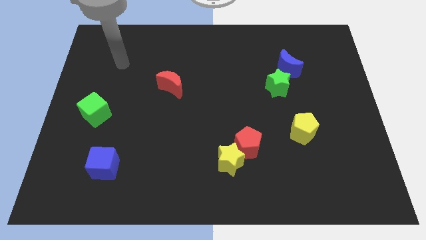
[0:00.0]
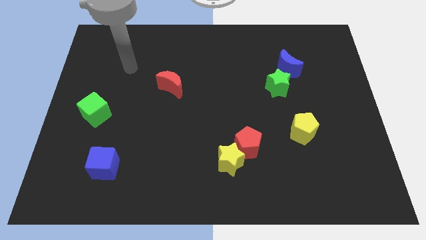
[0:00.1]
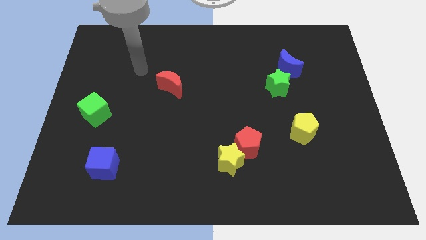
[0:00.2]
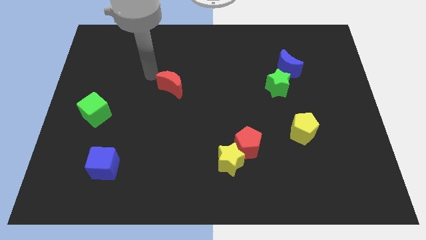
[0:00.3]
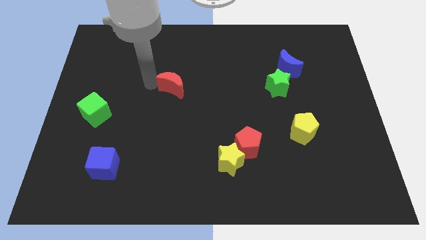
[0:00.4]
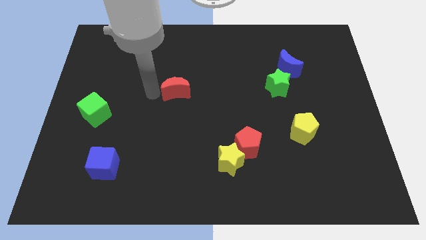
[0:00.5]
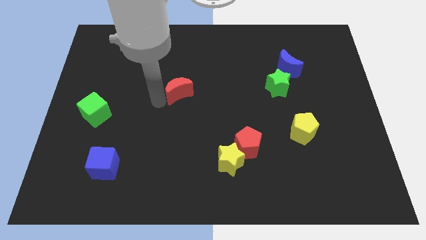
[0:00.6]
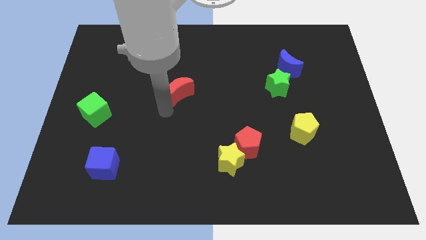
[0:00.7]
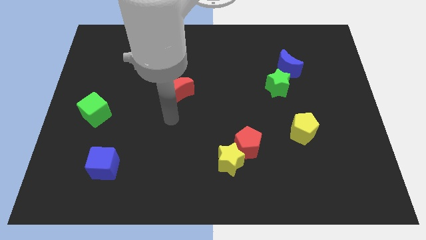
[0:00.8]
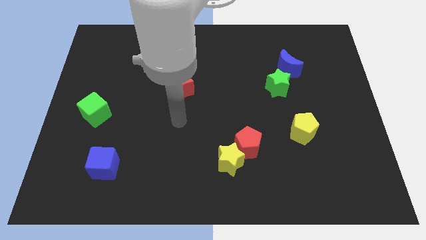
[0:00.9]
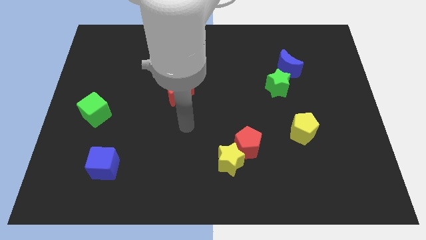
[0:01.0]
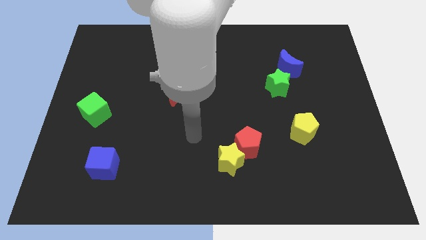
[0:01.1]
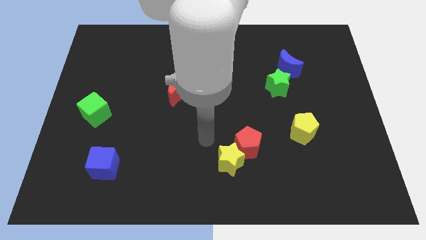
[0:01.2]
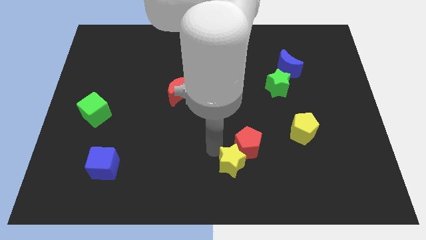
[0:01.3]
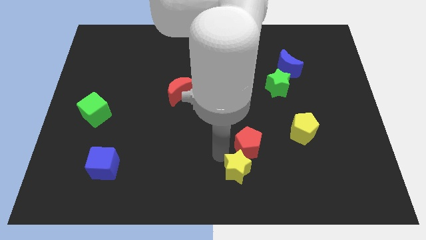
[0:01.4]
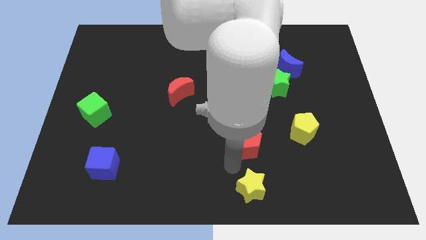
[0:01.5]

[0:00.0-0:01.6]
separate the red pentagon from the yellow star

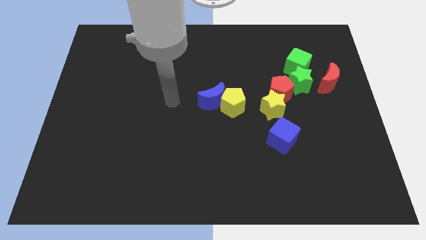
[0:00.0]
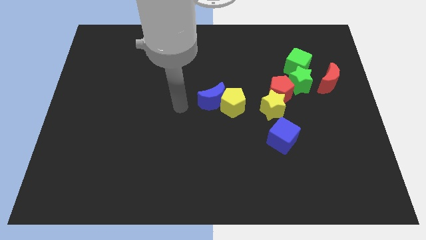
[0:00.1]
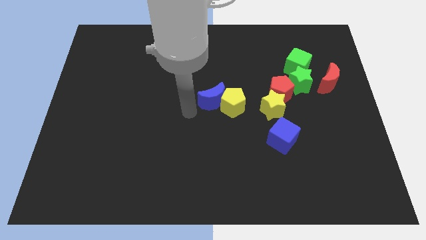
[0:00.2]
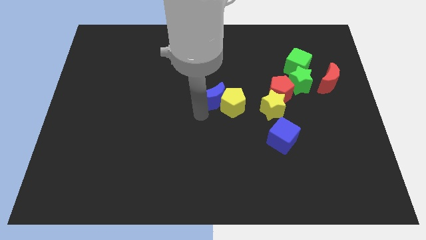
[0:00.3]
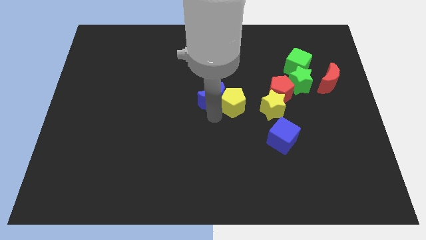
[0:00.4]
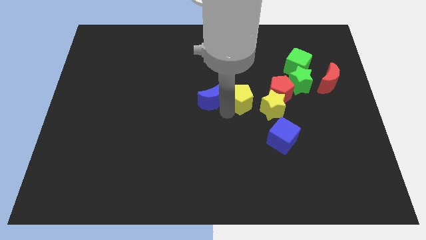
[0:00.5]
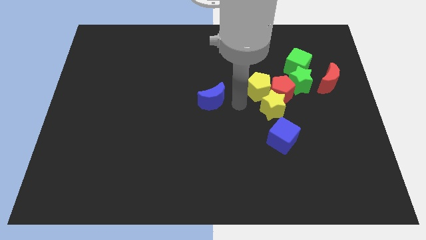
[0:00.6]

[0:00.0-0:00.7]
move the blue moon away from the yellow pentagon

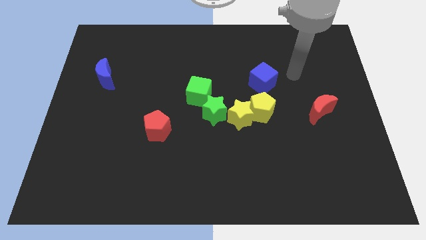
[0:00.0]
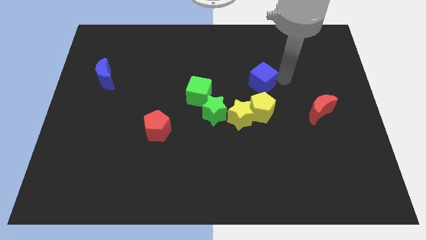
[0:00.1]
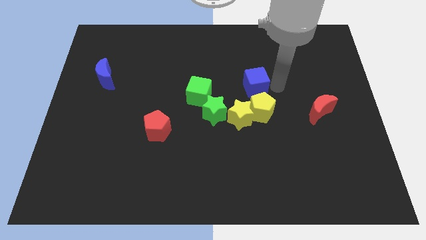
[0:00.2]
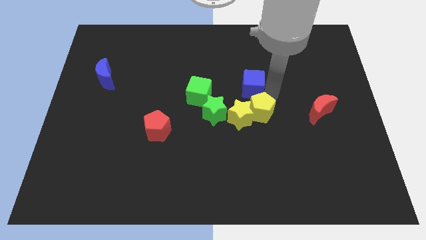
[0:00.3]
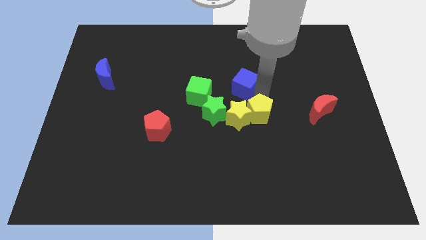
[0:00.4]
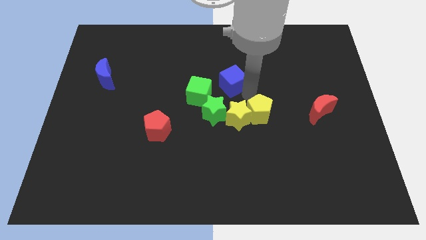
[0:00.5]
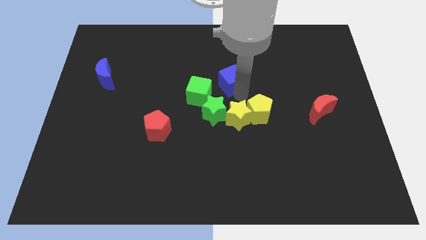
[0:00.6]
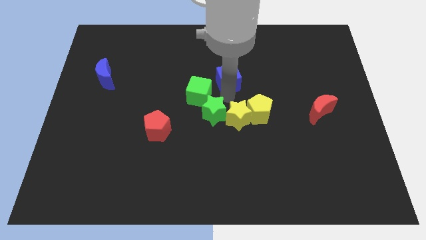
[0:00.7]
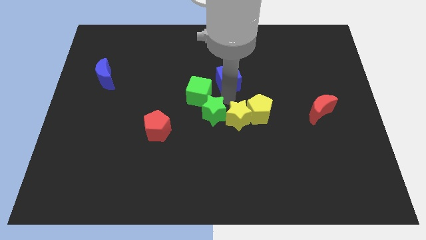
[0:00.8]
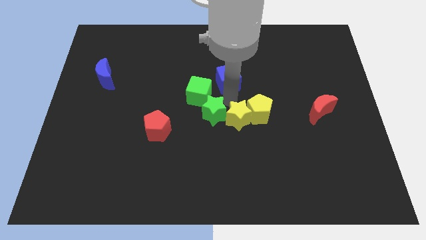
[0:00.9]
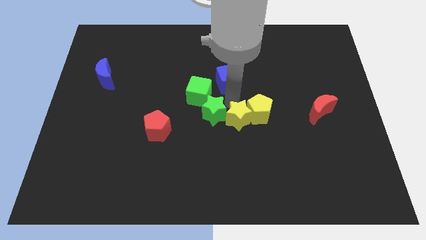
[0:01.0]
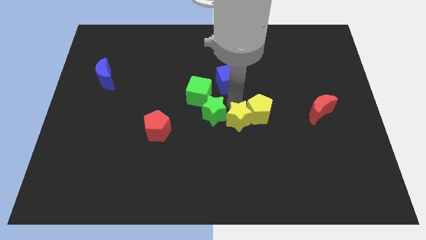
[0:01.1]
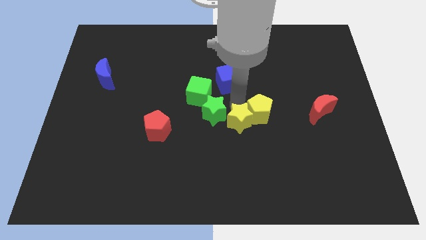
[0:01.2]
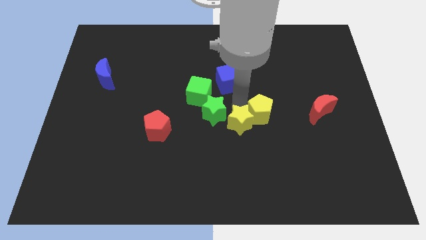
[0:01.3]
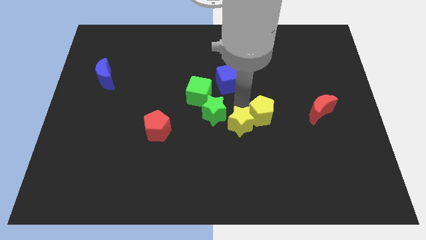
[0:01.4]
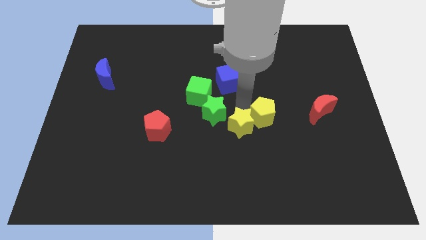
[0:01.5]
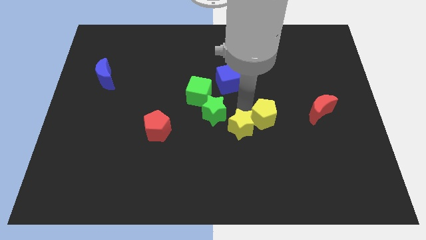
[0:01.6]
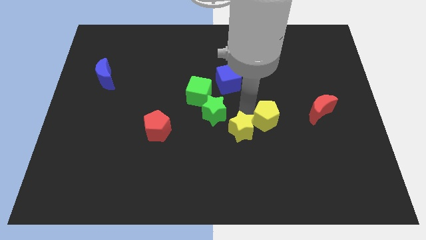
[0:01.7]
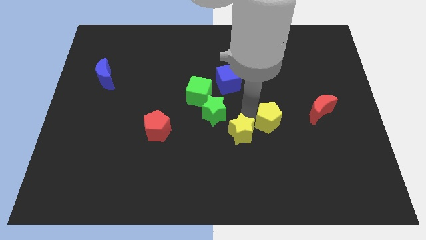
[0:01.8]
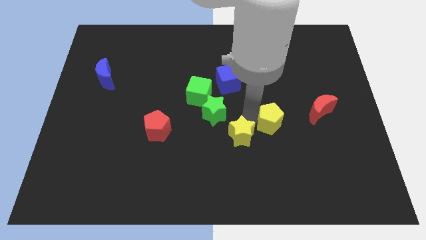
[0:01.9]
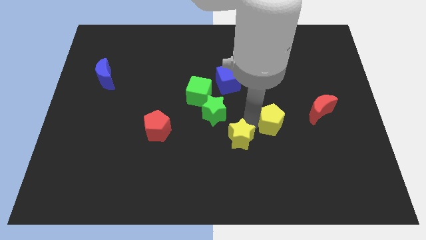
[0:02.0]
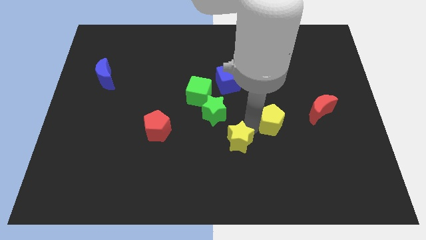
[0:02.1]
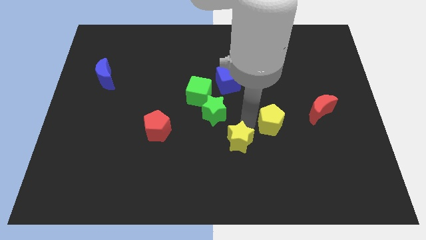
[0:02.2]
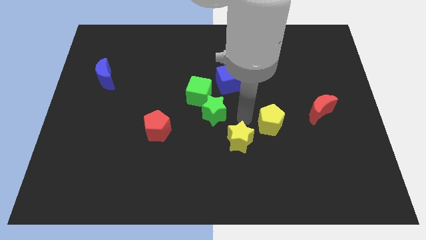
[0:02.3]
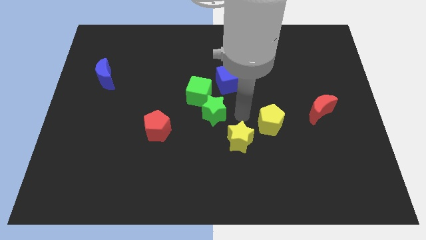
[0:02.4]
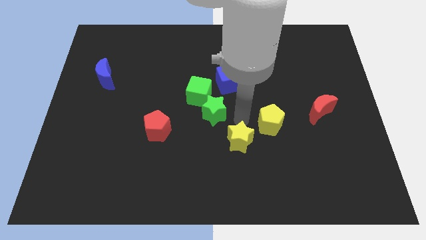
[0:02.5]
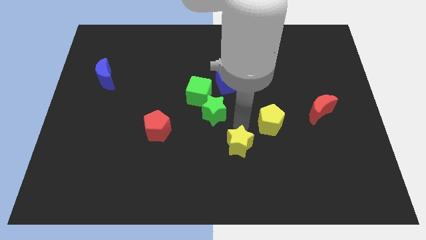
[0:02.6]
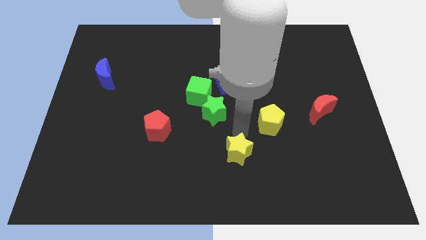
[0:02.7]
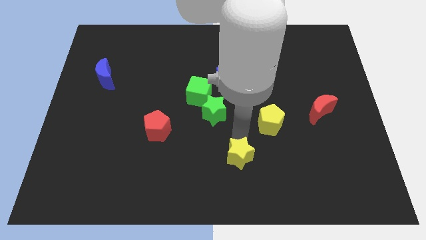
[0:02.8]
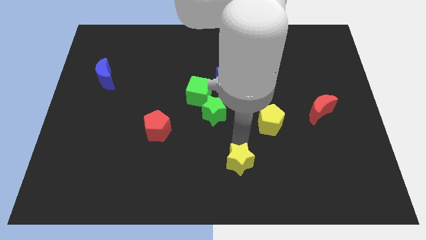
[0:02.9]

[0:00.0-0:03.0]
pull the yellow star apart from the yellow pentagon and green star

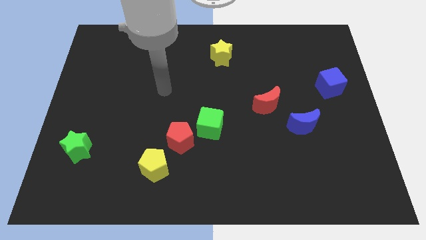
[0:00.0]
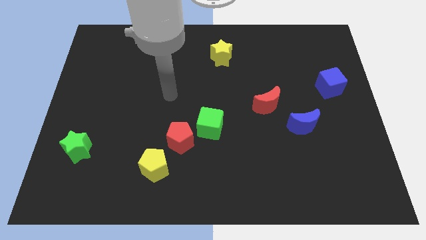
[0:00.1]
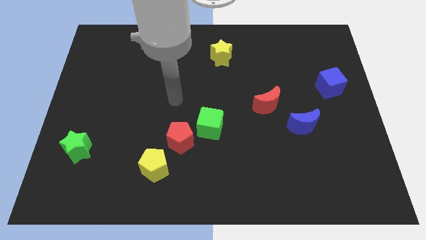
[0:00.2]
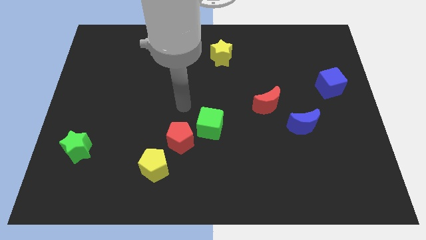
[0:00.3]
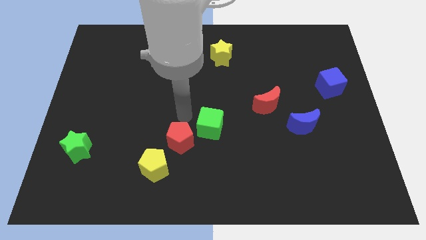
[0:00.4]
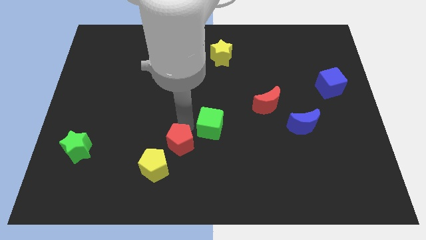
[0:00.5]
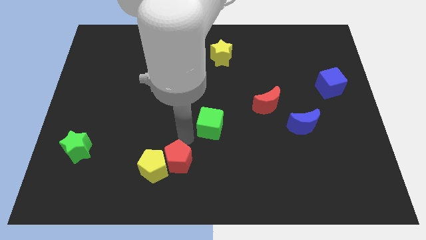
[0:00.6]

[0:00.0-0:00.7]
move the green cube away from the red pentagon

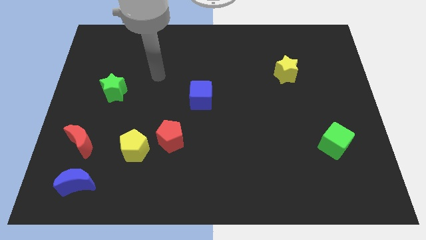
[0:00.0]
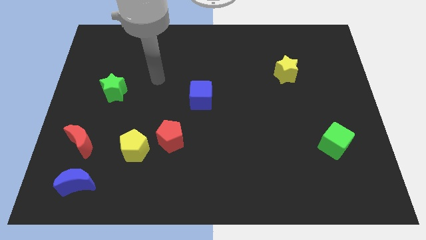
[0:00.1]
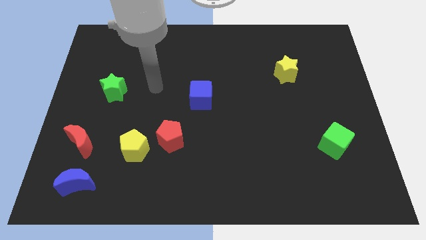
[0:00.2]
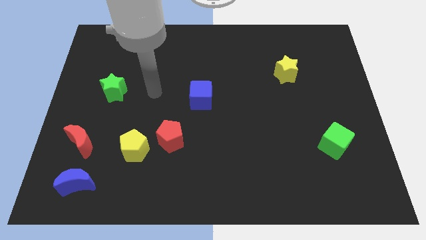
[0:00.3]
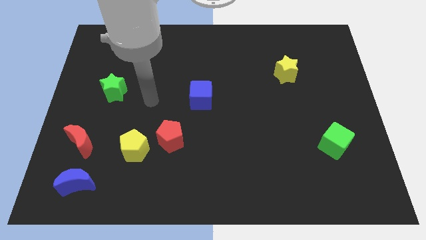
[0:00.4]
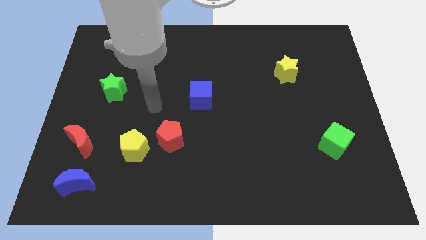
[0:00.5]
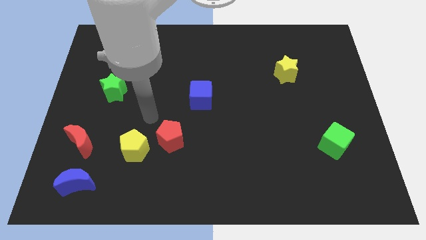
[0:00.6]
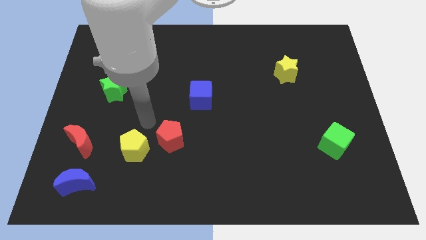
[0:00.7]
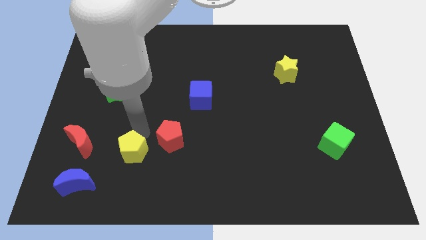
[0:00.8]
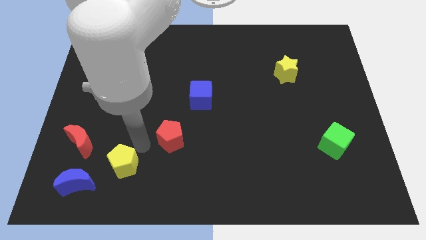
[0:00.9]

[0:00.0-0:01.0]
pull the red pentagon apart from the yellow pentagon

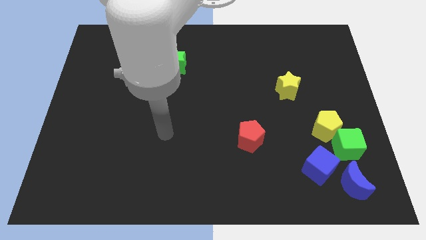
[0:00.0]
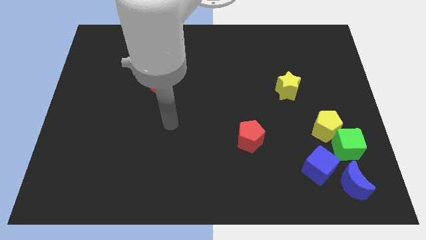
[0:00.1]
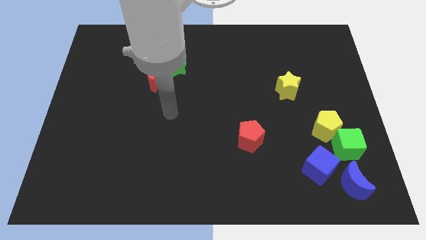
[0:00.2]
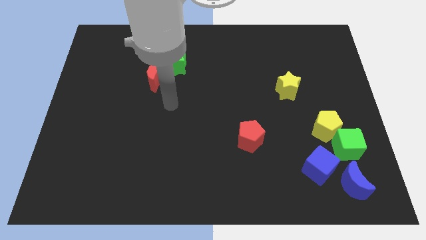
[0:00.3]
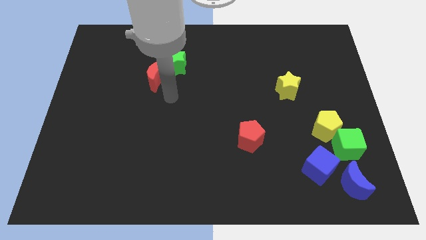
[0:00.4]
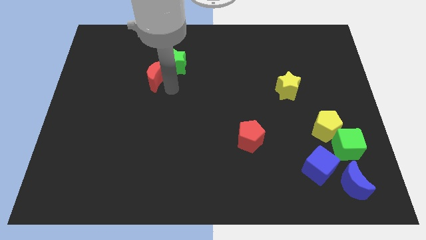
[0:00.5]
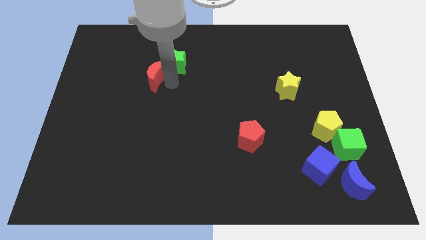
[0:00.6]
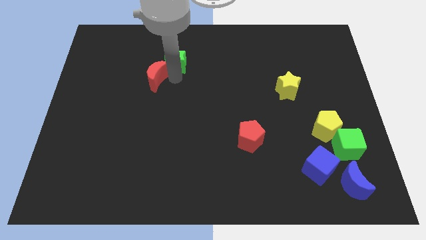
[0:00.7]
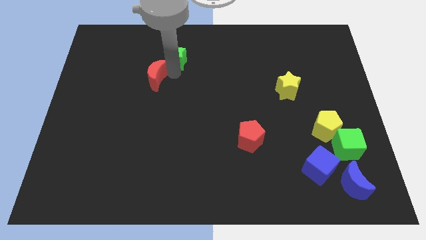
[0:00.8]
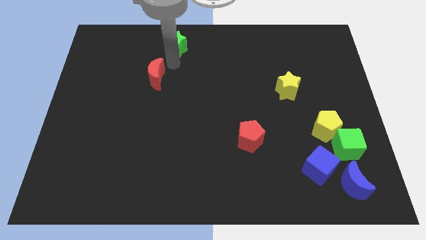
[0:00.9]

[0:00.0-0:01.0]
separate the red moon from the green star

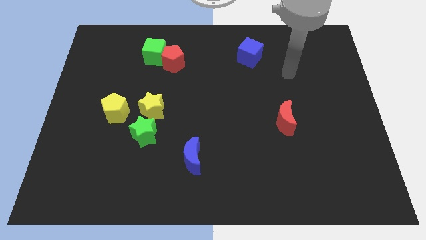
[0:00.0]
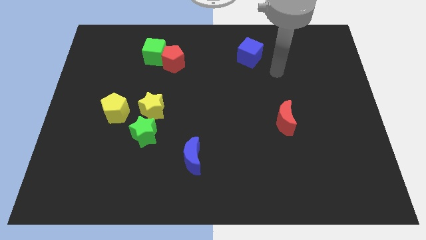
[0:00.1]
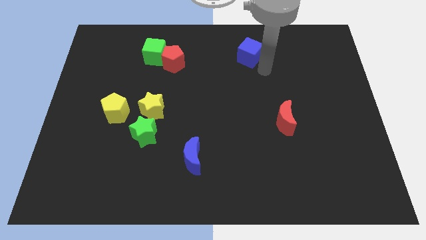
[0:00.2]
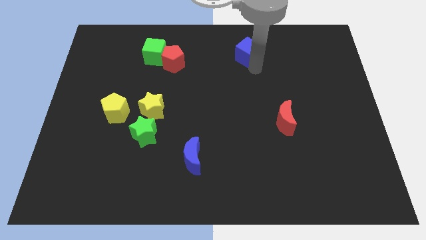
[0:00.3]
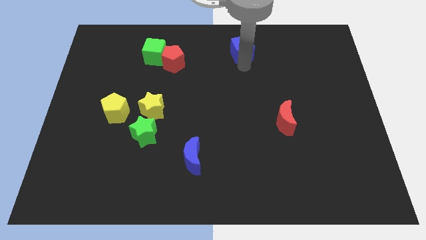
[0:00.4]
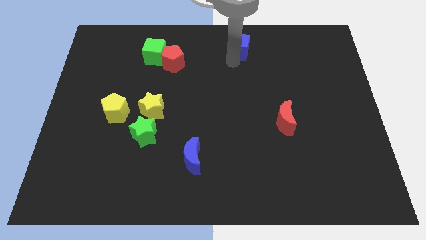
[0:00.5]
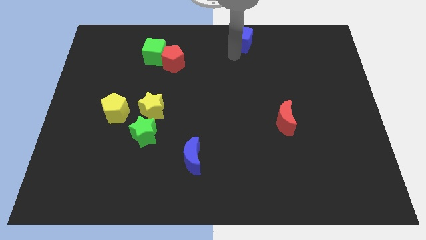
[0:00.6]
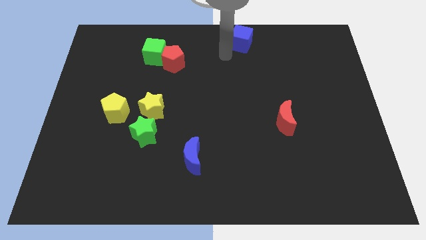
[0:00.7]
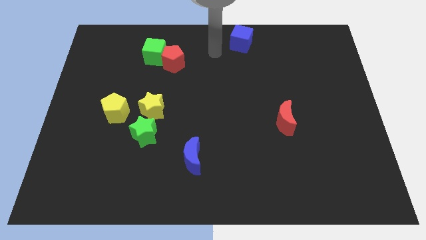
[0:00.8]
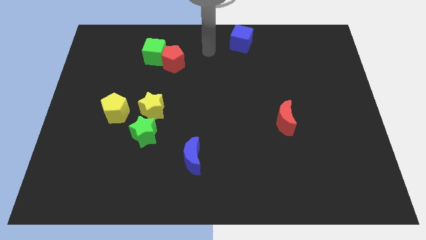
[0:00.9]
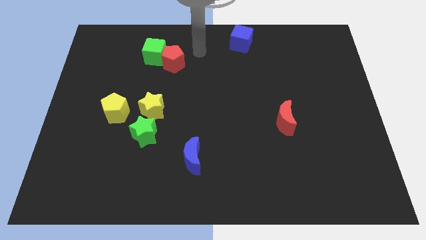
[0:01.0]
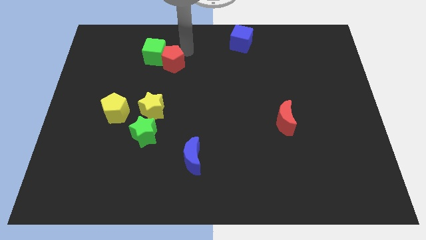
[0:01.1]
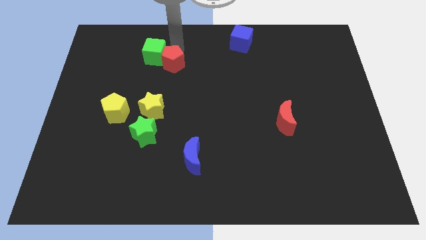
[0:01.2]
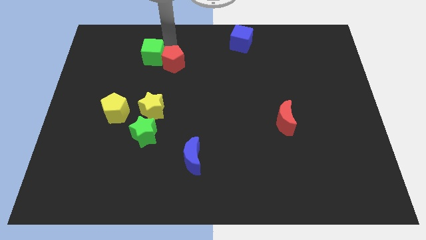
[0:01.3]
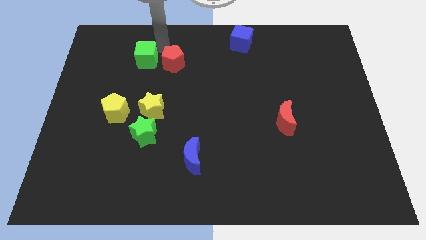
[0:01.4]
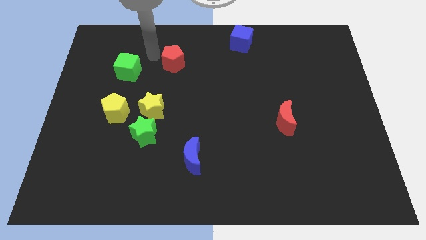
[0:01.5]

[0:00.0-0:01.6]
move the red pentagon away from the green cube
